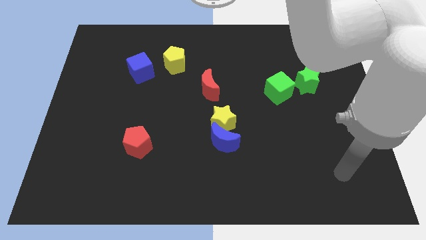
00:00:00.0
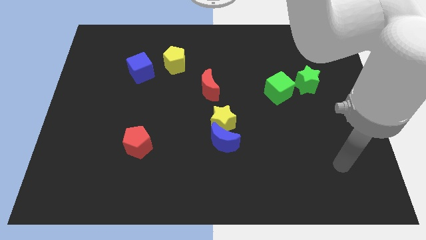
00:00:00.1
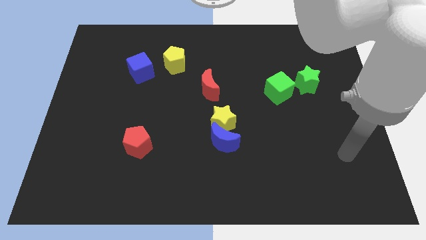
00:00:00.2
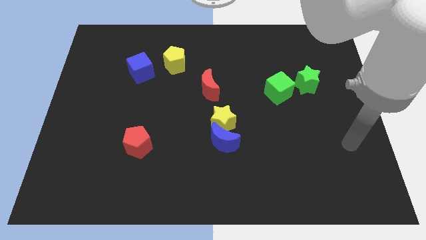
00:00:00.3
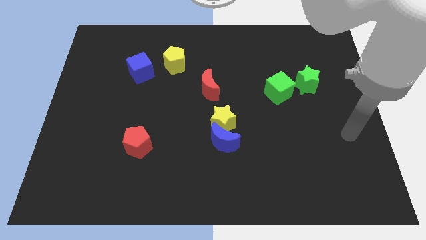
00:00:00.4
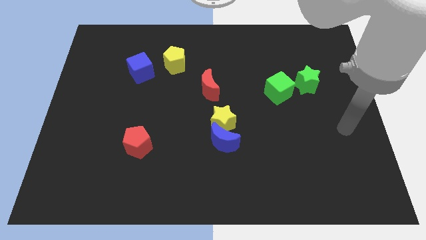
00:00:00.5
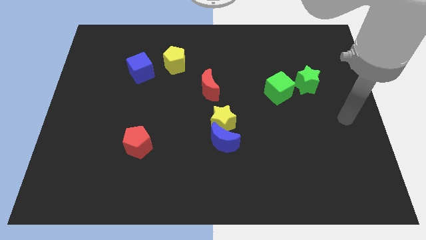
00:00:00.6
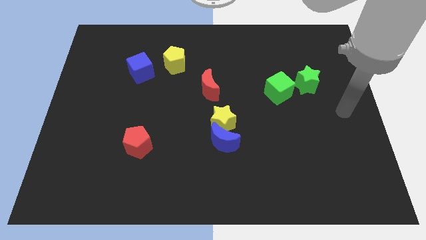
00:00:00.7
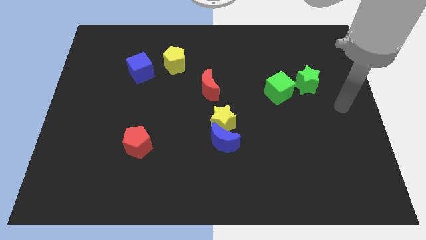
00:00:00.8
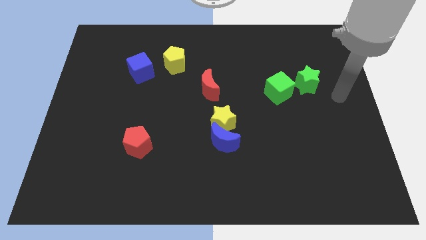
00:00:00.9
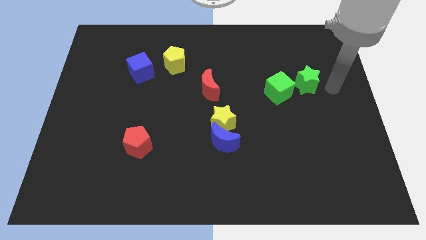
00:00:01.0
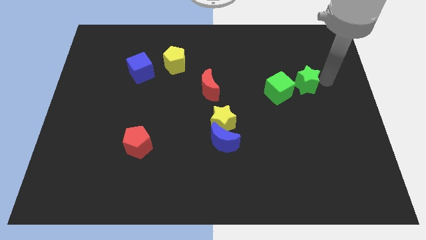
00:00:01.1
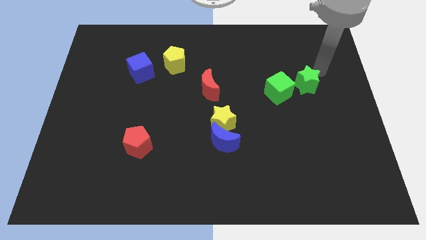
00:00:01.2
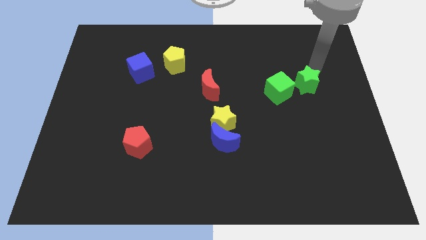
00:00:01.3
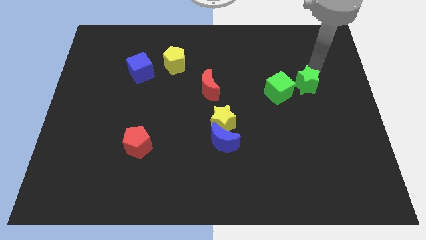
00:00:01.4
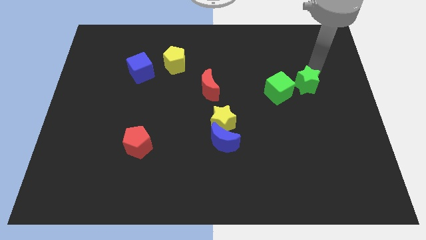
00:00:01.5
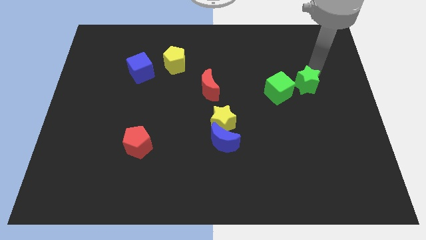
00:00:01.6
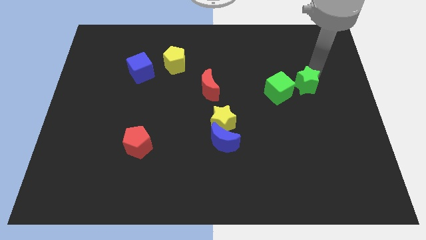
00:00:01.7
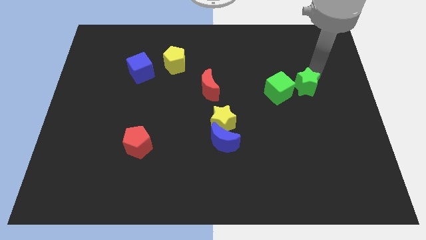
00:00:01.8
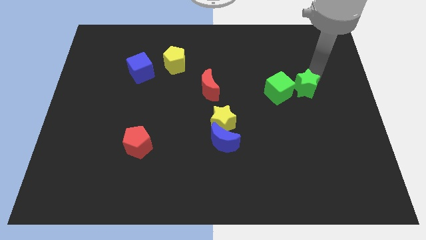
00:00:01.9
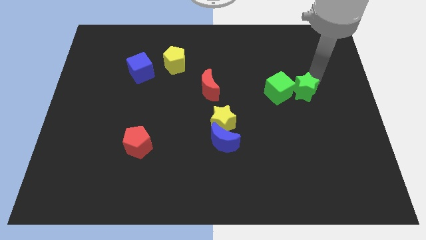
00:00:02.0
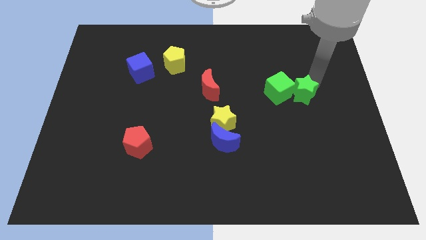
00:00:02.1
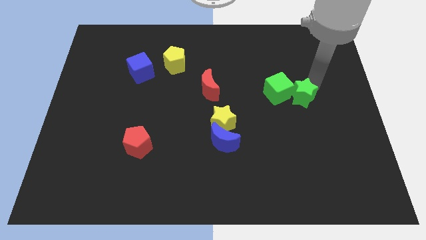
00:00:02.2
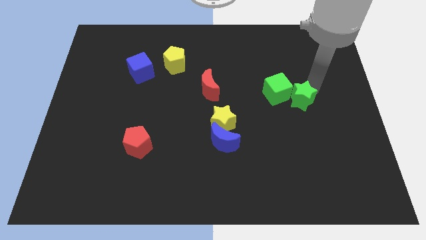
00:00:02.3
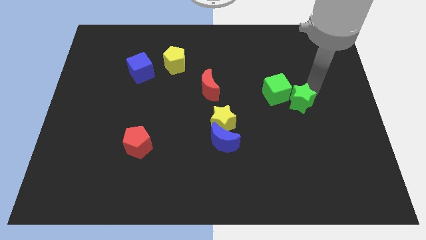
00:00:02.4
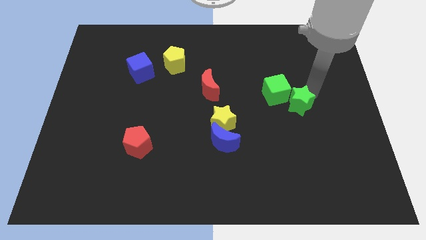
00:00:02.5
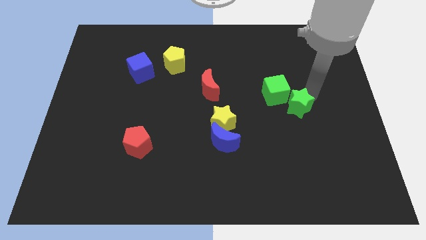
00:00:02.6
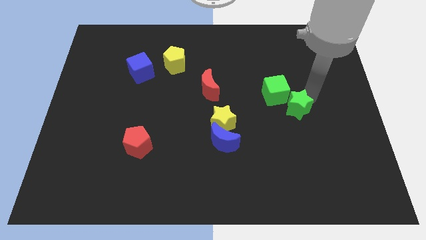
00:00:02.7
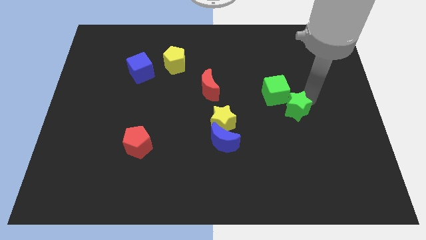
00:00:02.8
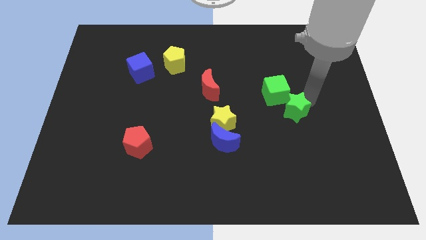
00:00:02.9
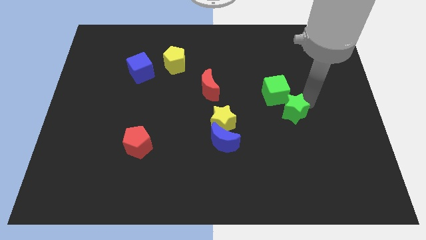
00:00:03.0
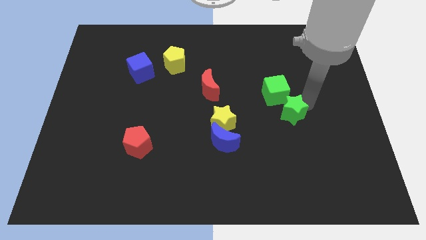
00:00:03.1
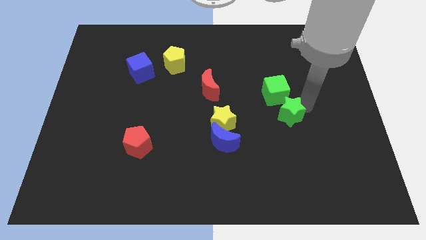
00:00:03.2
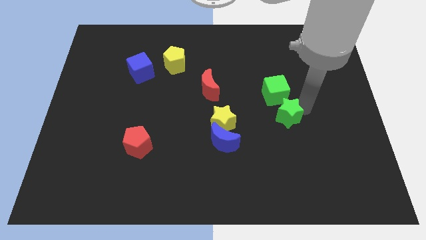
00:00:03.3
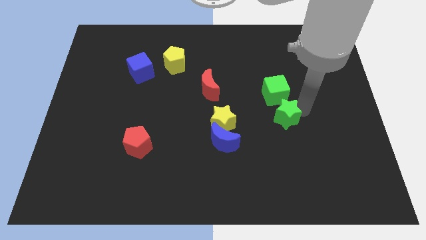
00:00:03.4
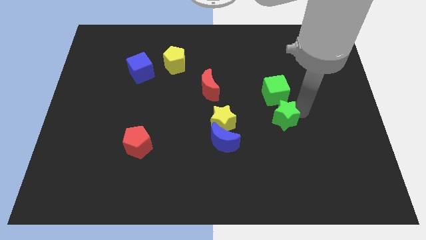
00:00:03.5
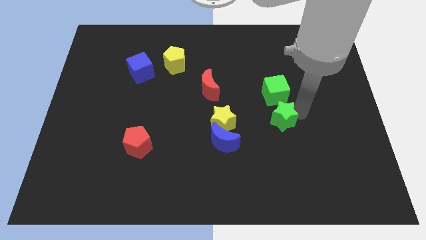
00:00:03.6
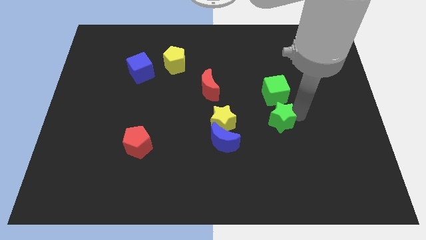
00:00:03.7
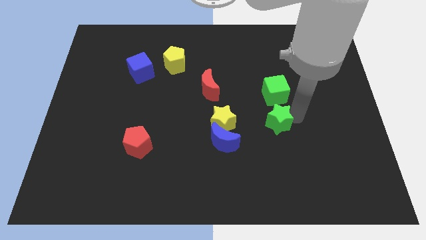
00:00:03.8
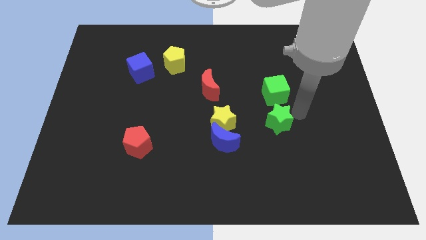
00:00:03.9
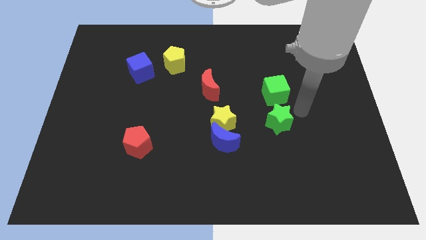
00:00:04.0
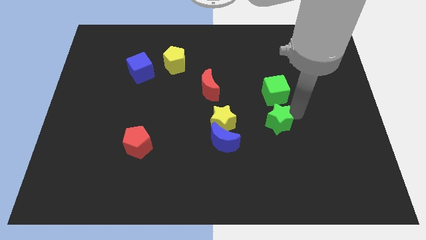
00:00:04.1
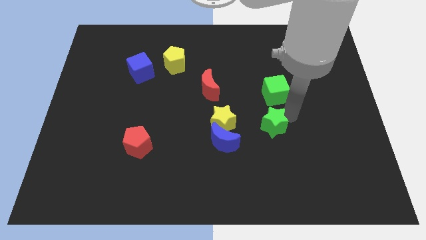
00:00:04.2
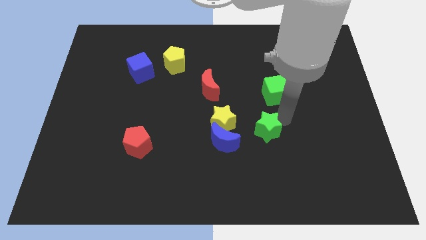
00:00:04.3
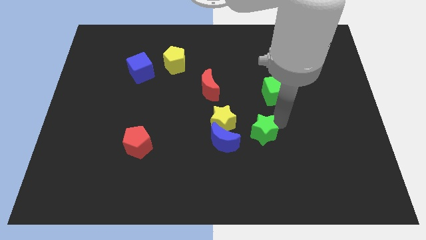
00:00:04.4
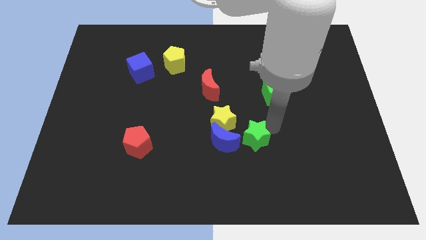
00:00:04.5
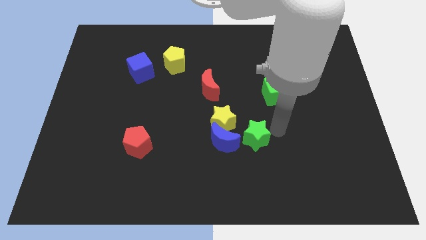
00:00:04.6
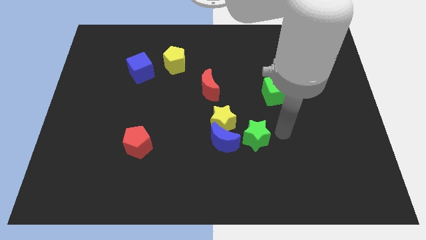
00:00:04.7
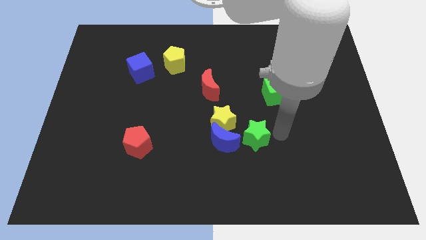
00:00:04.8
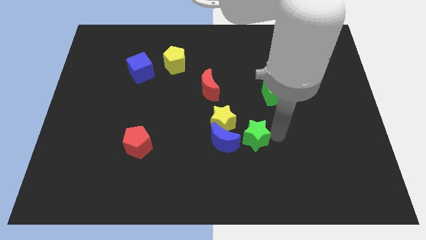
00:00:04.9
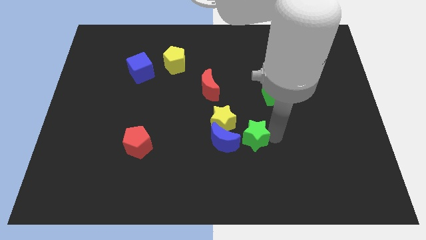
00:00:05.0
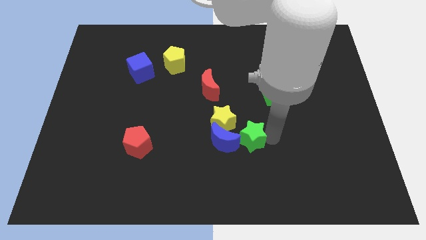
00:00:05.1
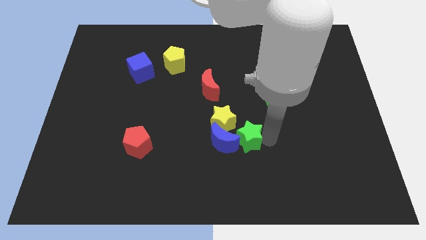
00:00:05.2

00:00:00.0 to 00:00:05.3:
slide the green star towards the blue moon

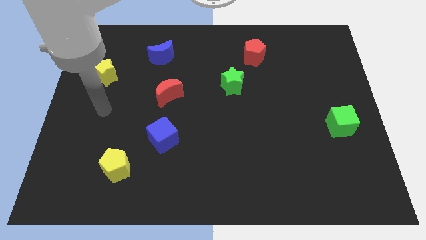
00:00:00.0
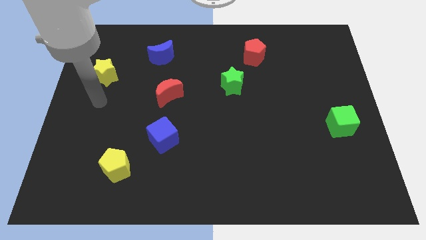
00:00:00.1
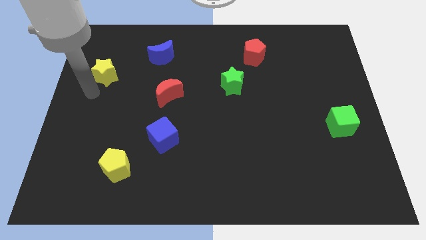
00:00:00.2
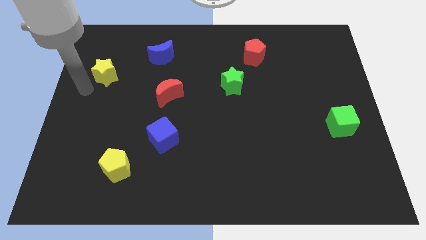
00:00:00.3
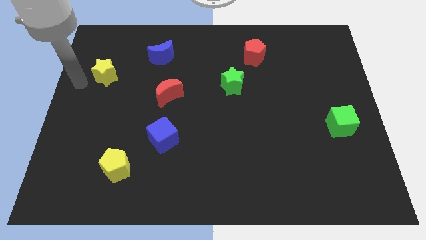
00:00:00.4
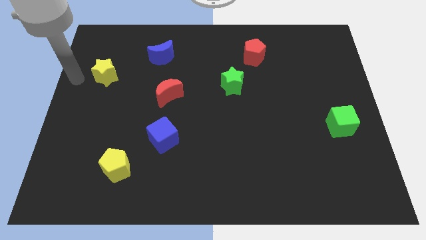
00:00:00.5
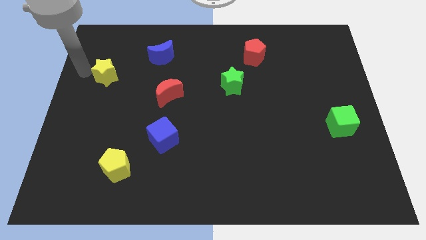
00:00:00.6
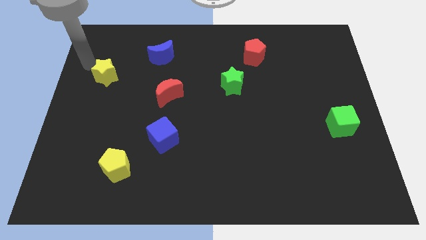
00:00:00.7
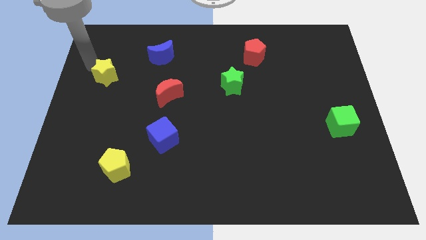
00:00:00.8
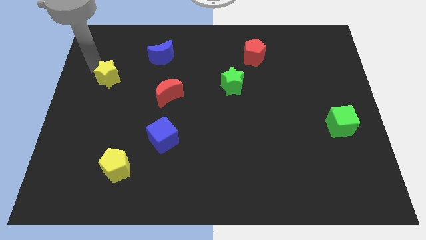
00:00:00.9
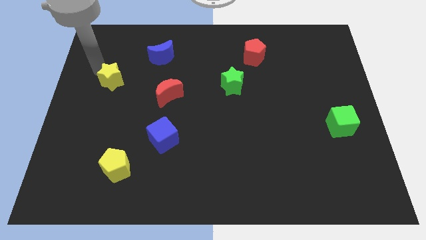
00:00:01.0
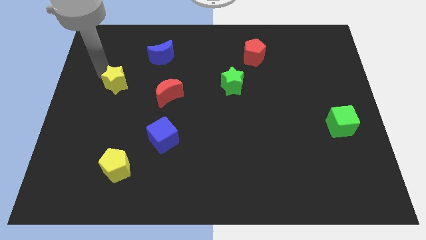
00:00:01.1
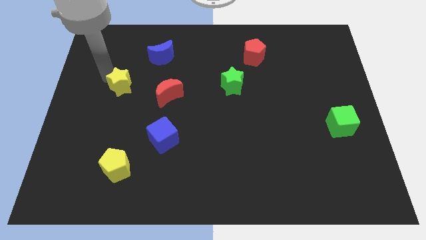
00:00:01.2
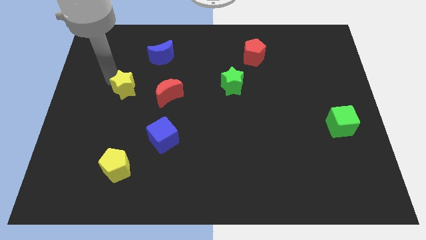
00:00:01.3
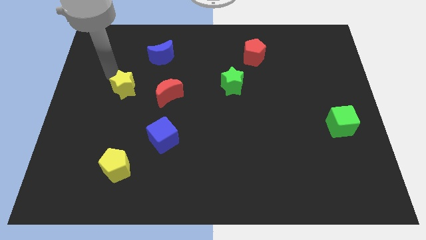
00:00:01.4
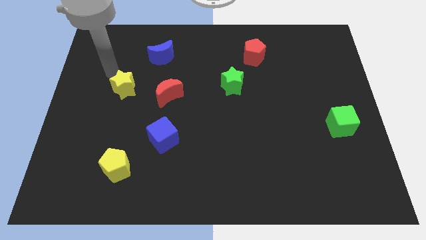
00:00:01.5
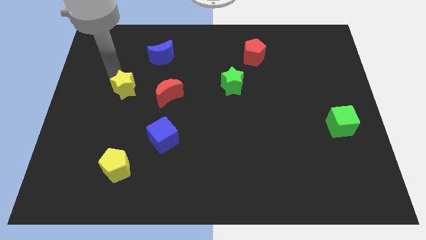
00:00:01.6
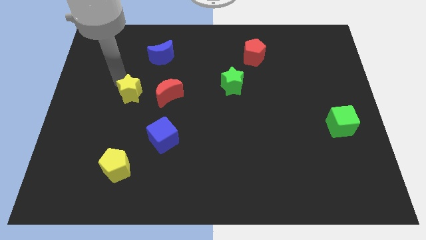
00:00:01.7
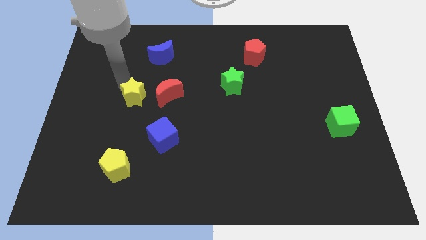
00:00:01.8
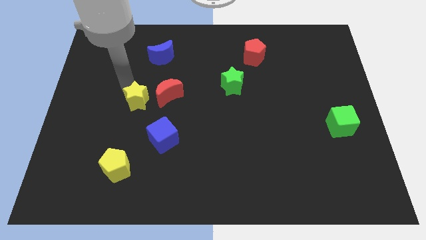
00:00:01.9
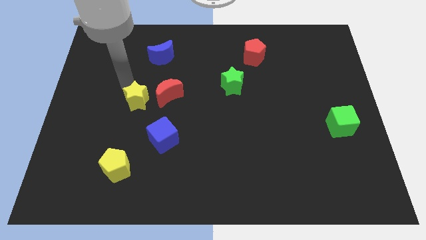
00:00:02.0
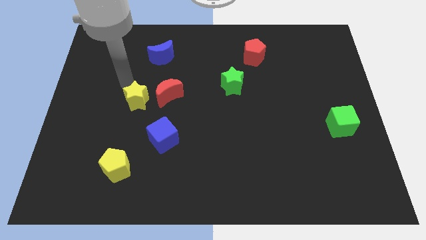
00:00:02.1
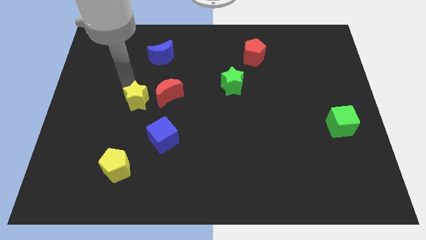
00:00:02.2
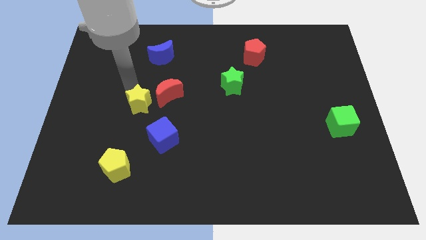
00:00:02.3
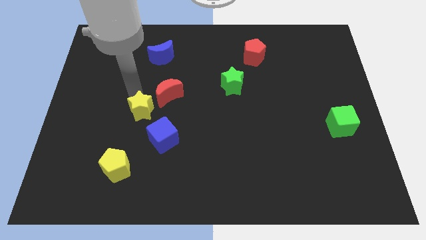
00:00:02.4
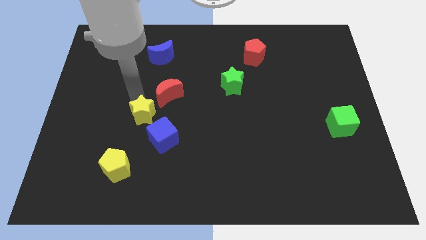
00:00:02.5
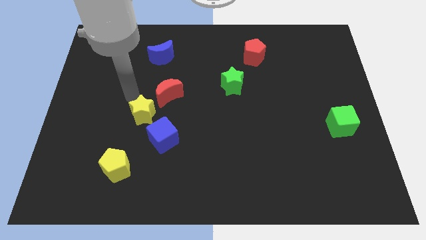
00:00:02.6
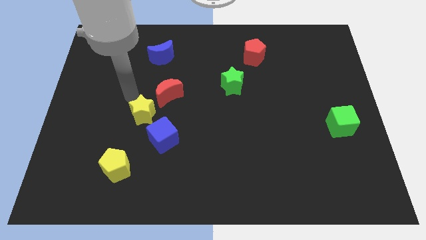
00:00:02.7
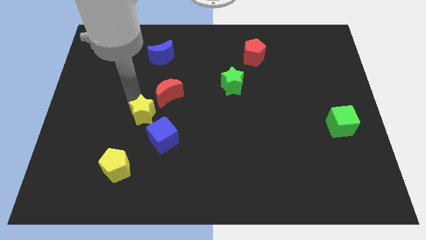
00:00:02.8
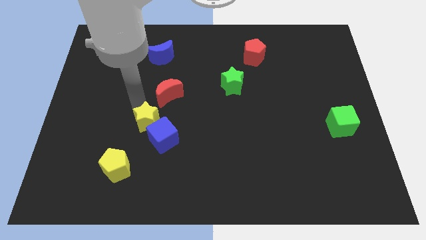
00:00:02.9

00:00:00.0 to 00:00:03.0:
put the yellow star towards the blue cube
